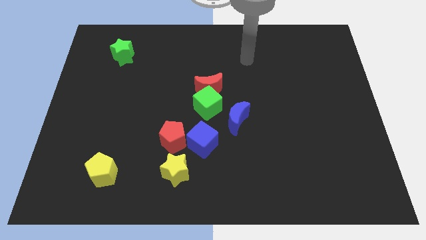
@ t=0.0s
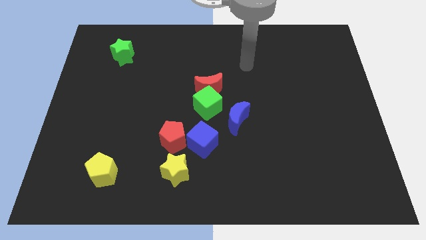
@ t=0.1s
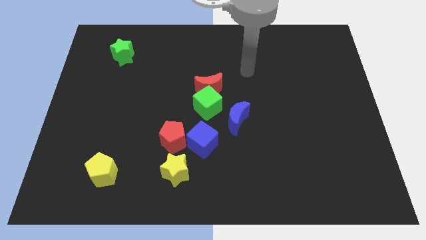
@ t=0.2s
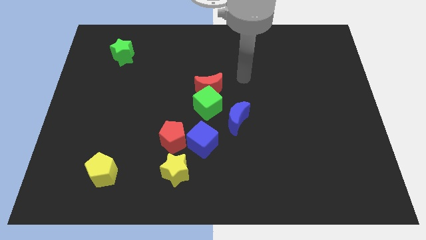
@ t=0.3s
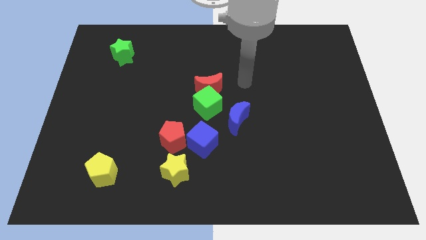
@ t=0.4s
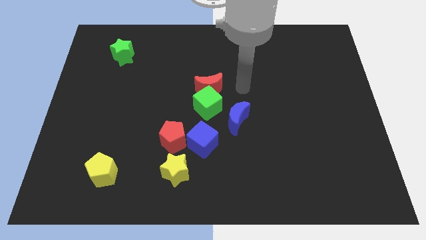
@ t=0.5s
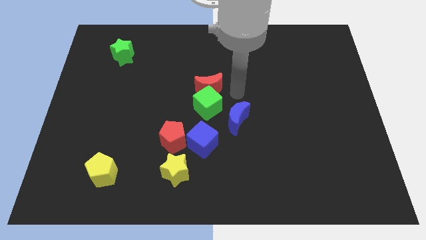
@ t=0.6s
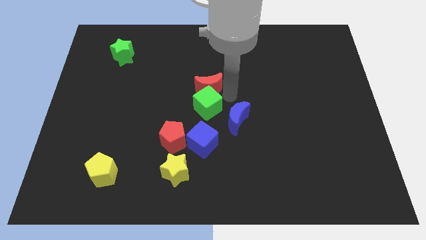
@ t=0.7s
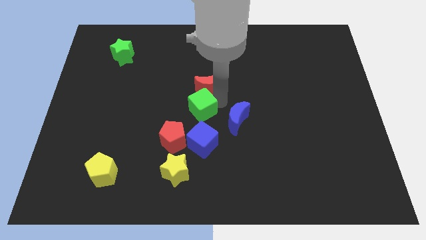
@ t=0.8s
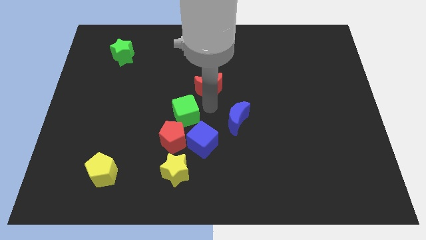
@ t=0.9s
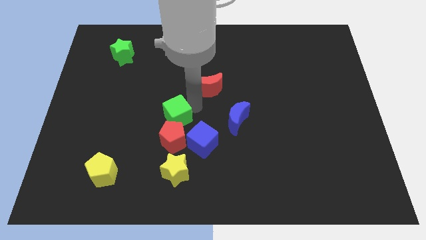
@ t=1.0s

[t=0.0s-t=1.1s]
pull the red moon apart from the green cube

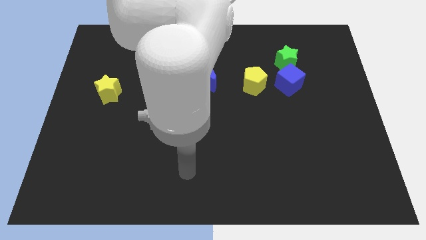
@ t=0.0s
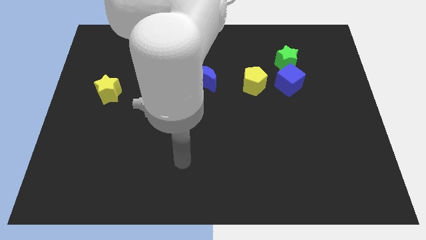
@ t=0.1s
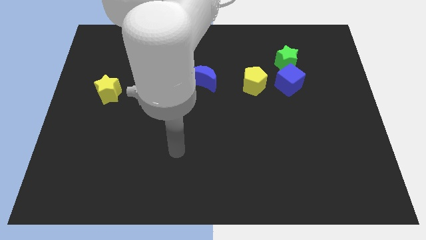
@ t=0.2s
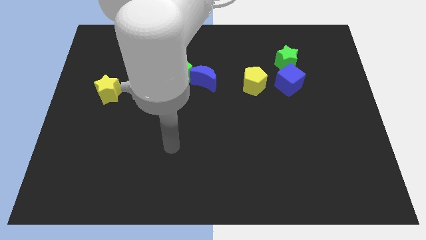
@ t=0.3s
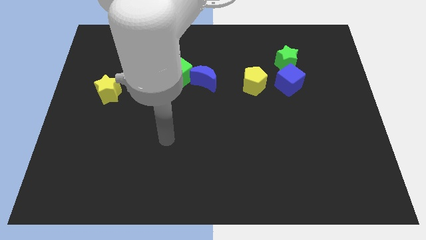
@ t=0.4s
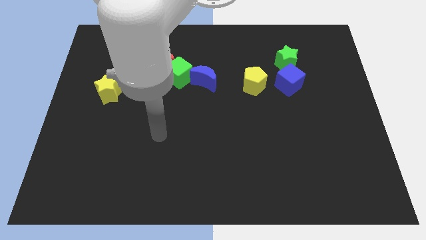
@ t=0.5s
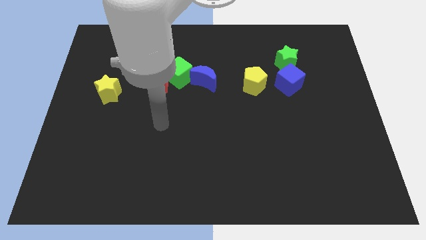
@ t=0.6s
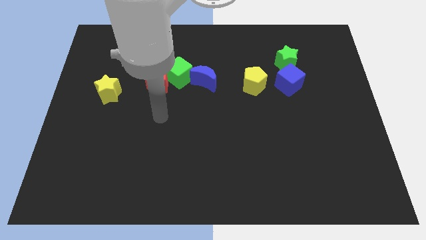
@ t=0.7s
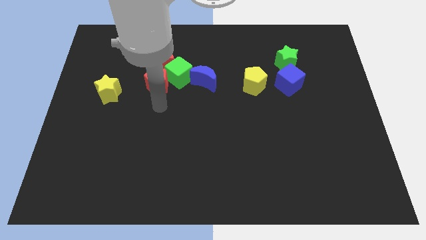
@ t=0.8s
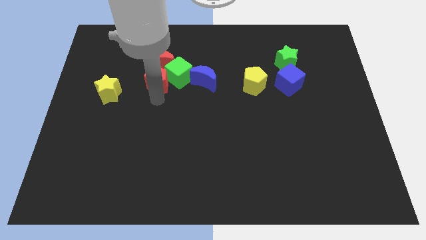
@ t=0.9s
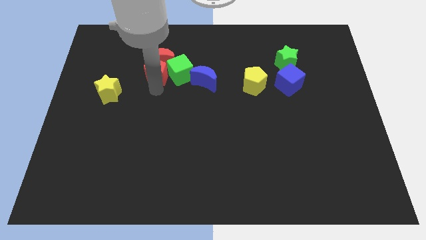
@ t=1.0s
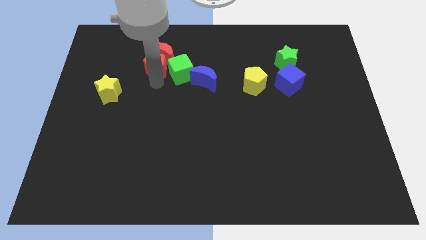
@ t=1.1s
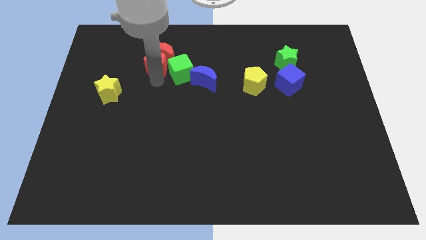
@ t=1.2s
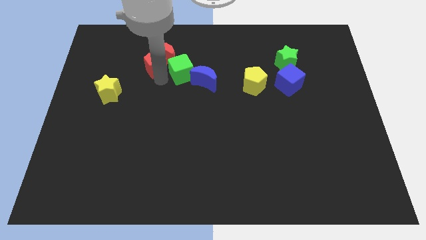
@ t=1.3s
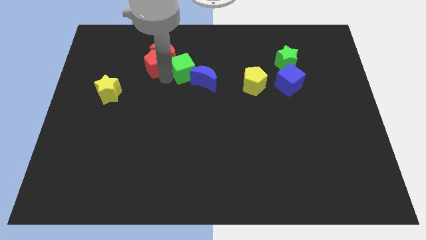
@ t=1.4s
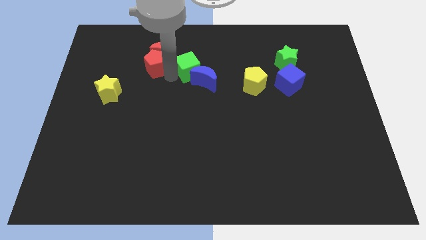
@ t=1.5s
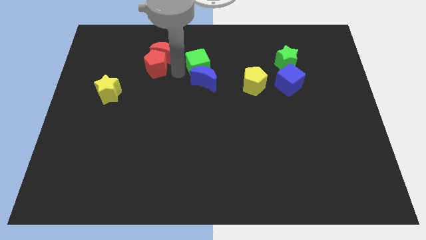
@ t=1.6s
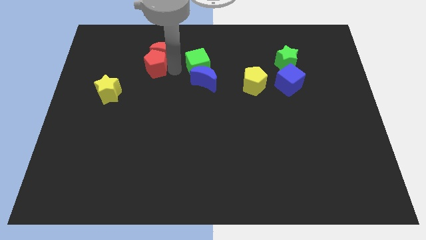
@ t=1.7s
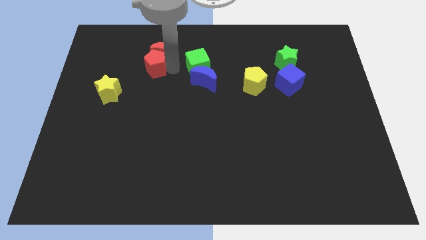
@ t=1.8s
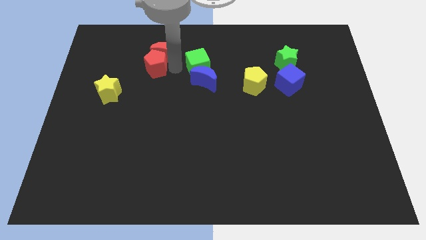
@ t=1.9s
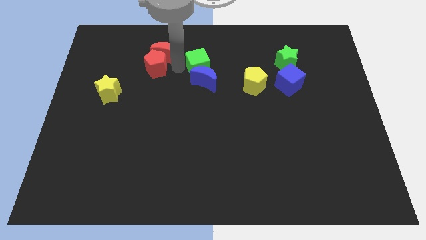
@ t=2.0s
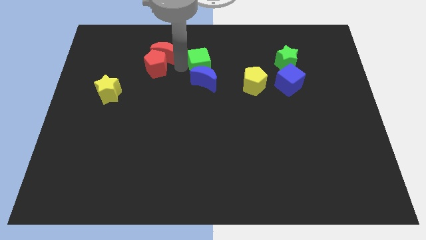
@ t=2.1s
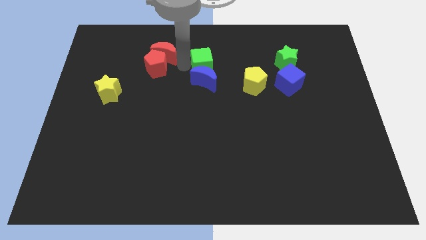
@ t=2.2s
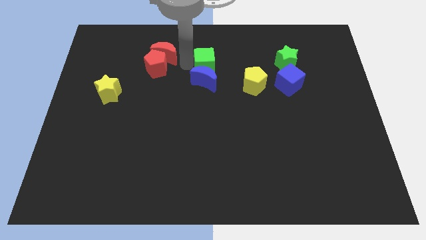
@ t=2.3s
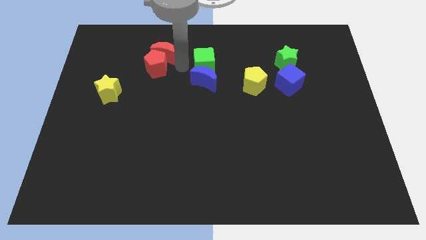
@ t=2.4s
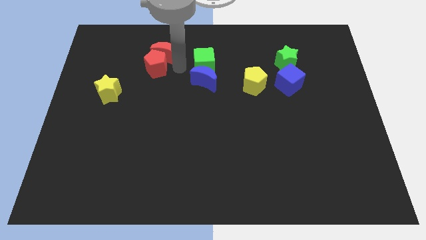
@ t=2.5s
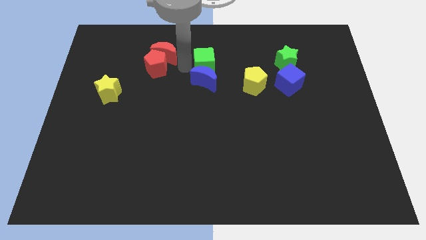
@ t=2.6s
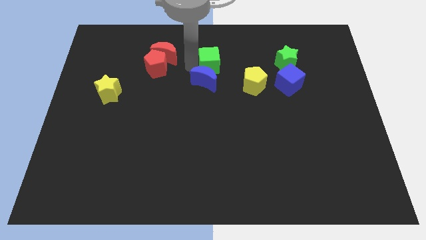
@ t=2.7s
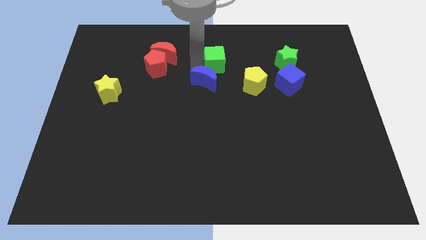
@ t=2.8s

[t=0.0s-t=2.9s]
separate the green cube from the clump

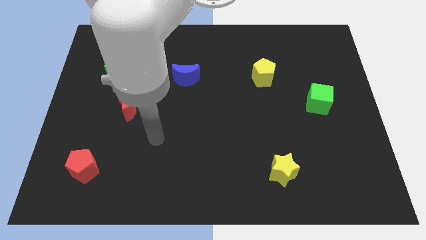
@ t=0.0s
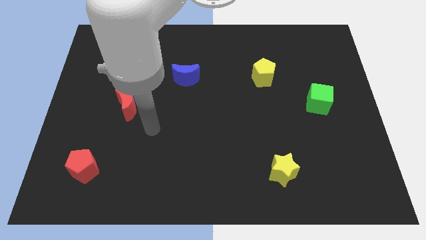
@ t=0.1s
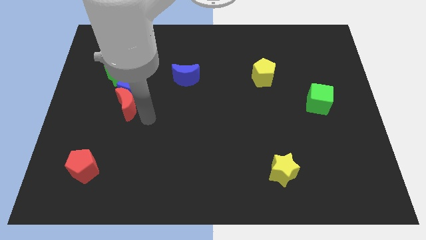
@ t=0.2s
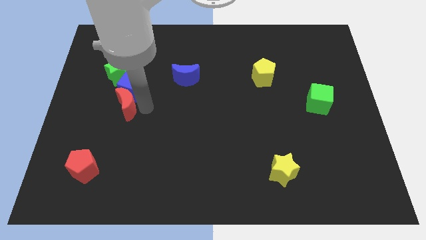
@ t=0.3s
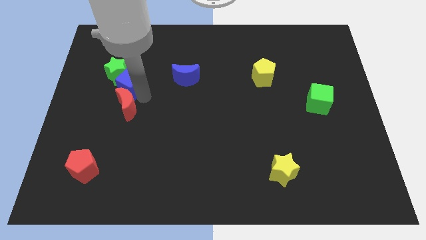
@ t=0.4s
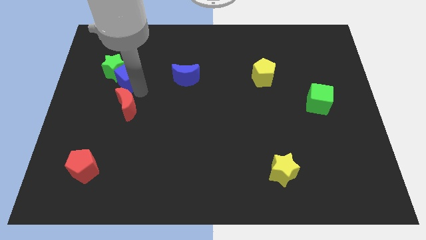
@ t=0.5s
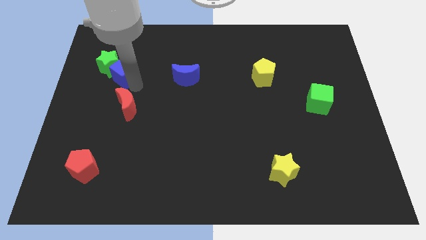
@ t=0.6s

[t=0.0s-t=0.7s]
pull the red moon apart from the blue cube

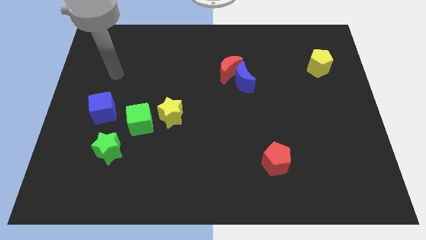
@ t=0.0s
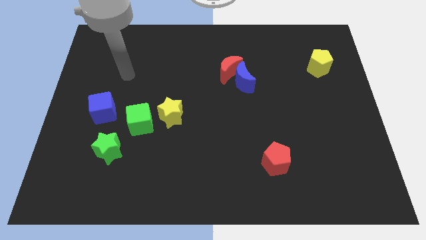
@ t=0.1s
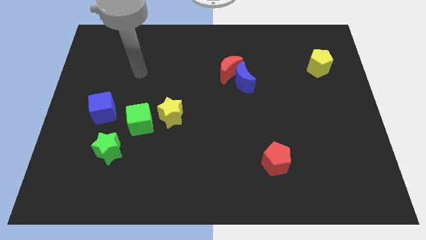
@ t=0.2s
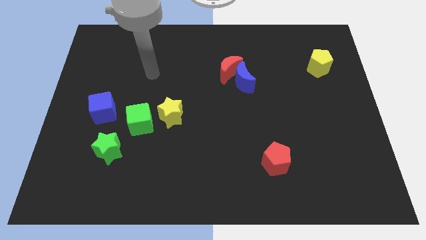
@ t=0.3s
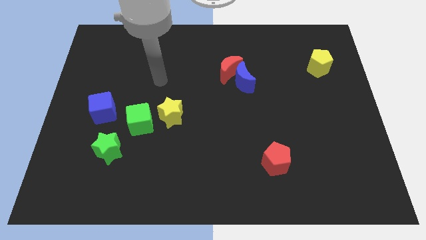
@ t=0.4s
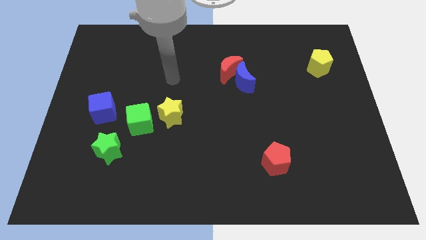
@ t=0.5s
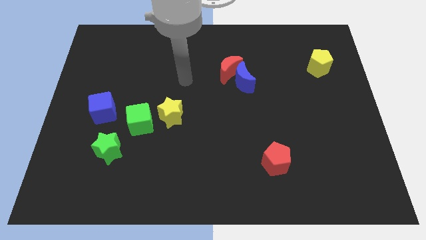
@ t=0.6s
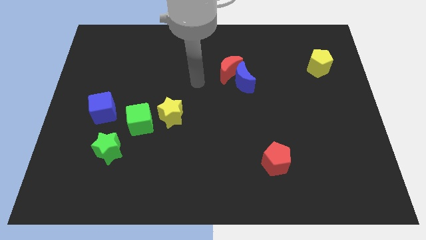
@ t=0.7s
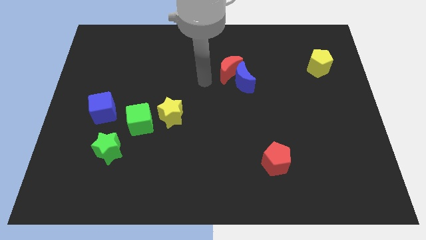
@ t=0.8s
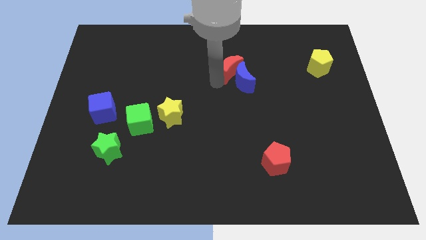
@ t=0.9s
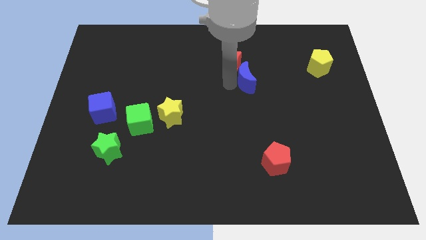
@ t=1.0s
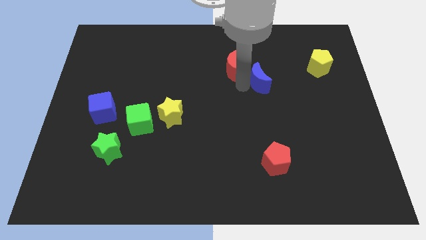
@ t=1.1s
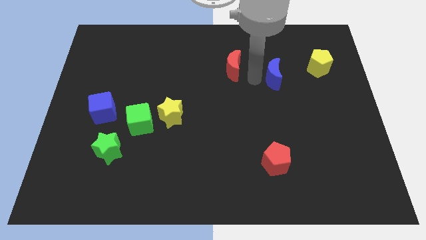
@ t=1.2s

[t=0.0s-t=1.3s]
pull the red moon apart from the blue moon

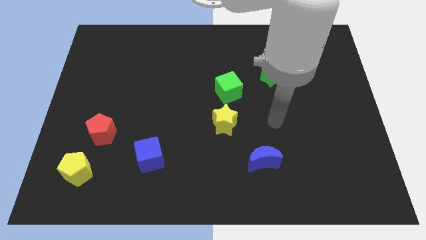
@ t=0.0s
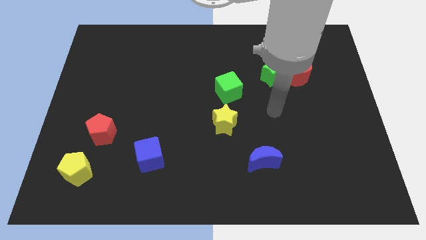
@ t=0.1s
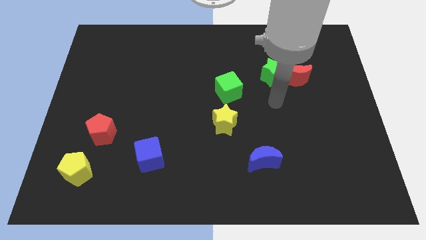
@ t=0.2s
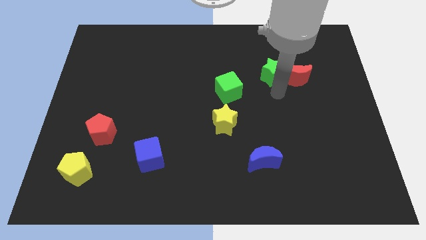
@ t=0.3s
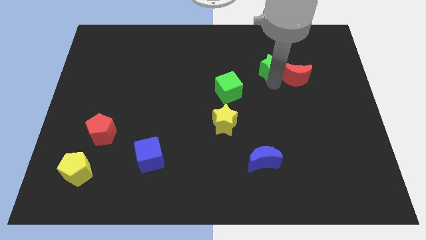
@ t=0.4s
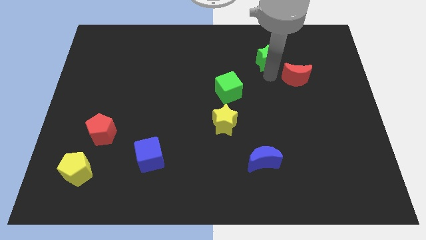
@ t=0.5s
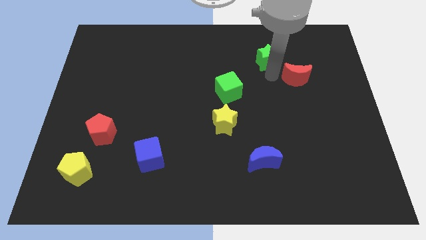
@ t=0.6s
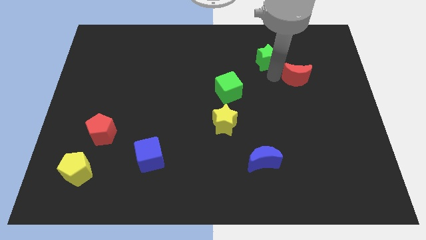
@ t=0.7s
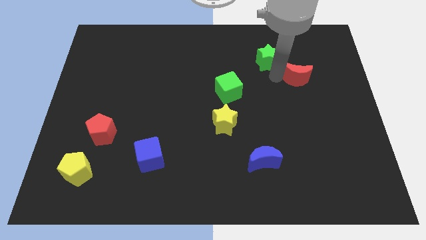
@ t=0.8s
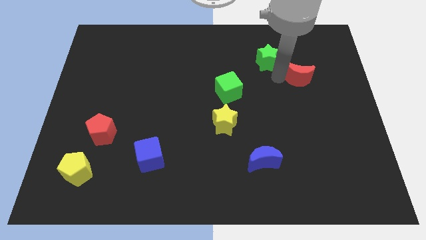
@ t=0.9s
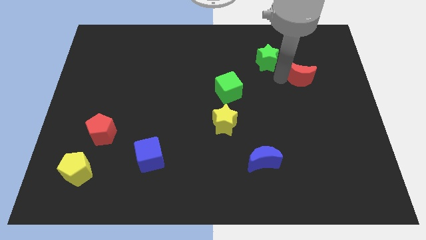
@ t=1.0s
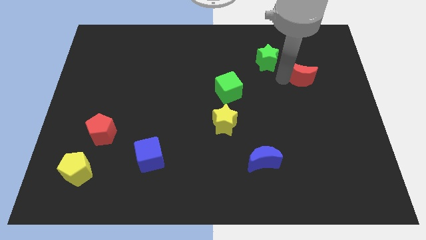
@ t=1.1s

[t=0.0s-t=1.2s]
pull the red moon apart from the green star

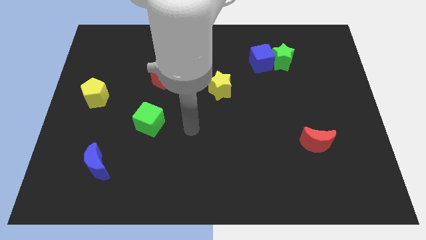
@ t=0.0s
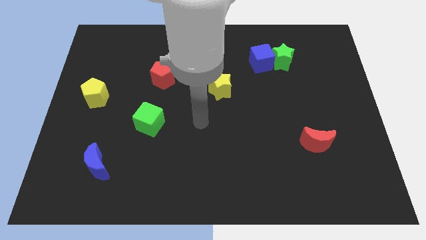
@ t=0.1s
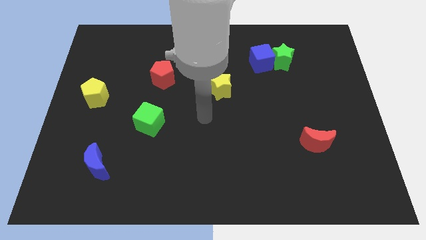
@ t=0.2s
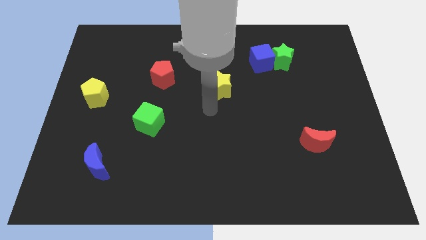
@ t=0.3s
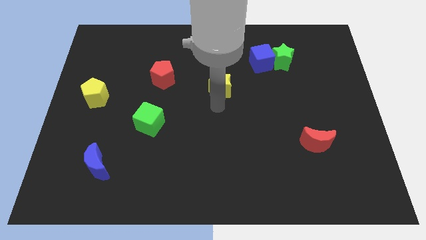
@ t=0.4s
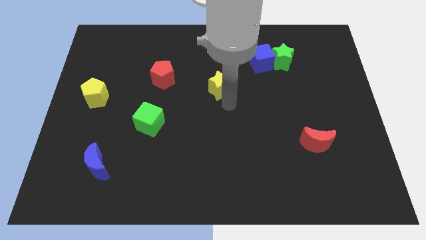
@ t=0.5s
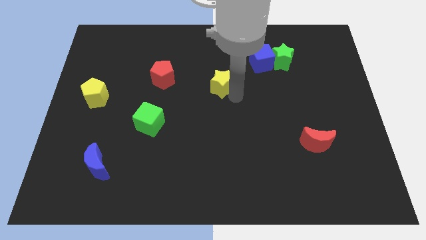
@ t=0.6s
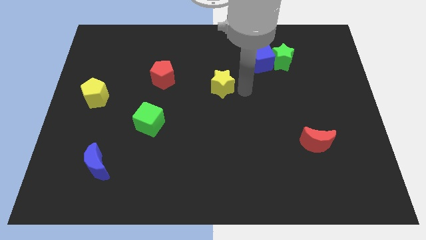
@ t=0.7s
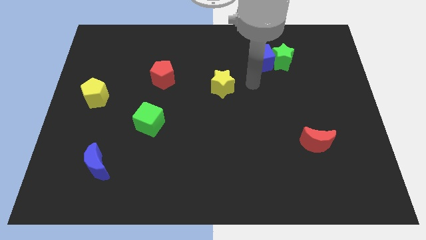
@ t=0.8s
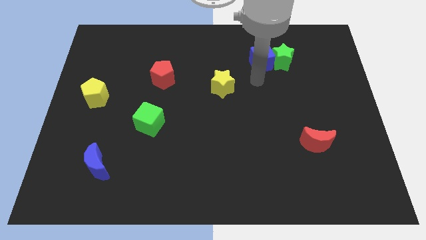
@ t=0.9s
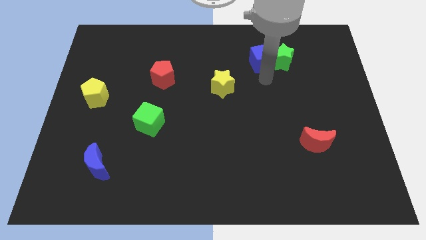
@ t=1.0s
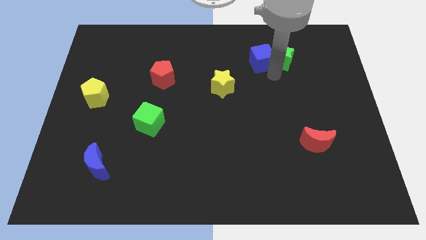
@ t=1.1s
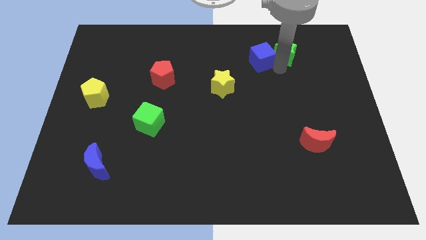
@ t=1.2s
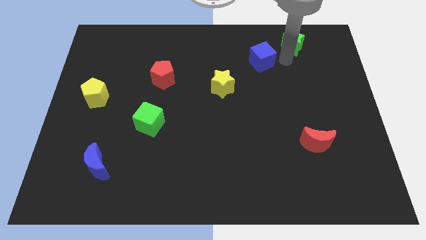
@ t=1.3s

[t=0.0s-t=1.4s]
move the blue cube away from the green star

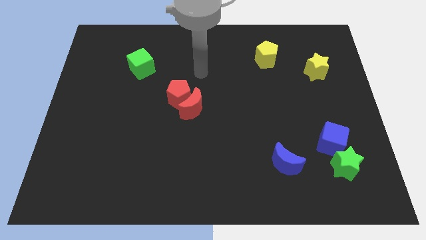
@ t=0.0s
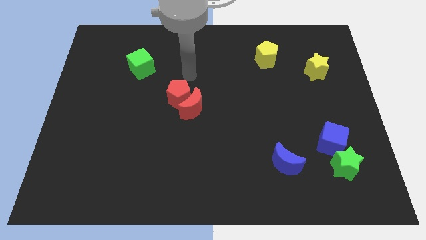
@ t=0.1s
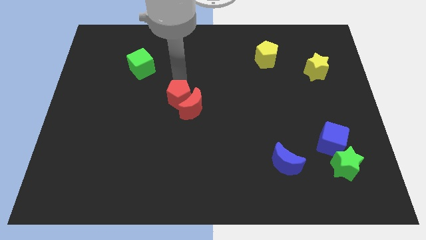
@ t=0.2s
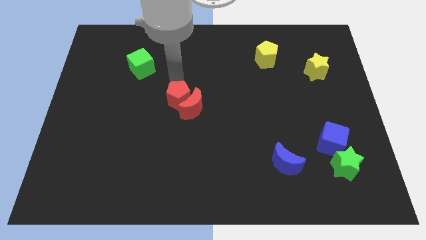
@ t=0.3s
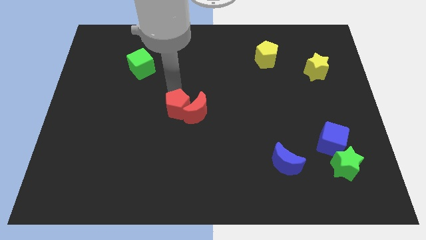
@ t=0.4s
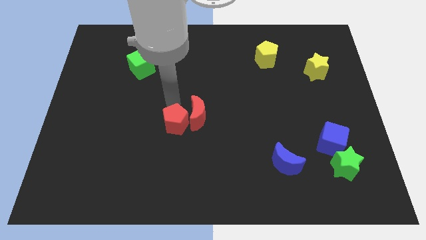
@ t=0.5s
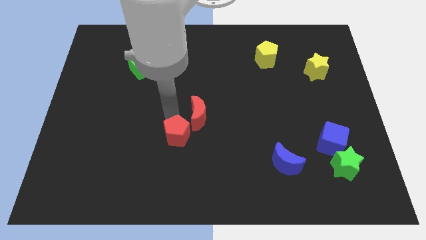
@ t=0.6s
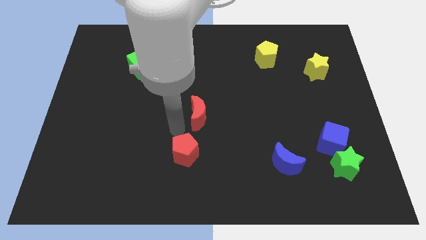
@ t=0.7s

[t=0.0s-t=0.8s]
move the red moon away from the red pentagon
